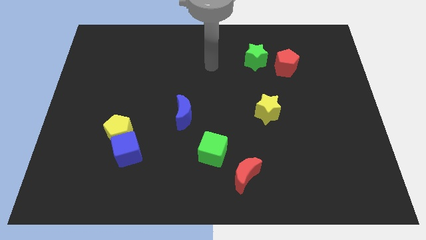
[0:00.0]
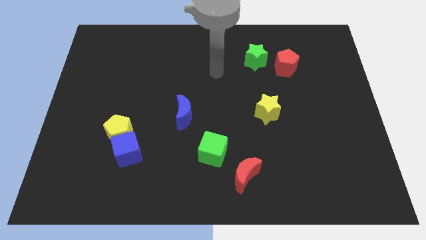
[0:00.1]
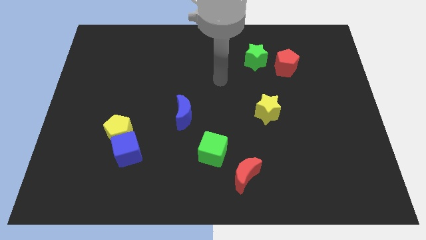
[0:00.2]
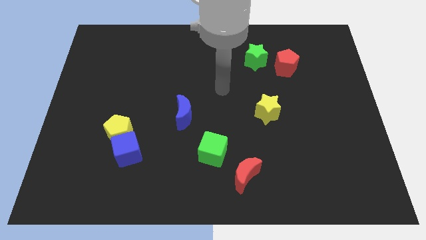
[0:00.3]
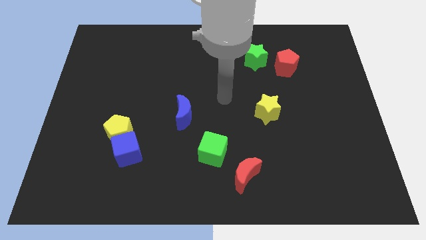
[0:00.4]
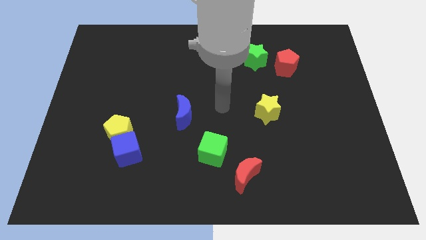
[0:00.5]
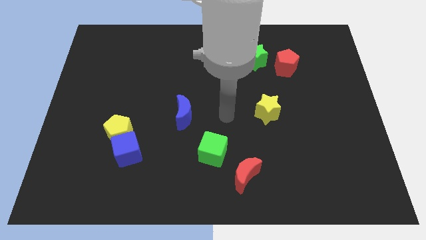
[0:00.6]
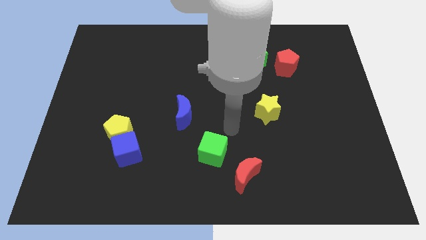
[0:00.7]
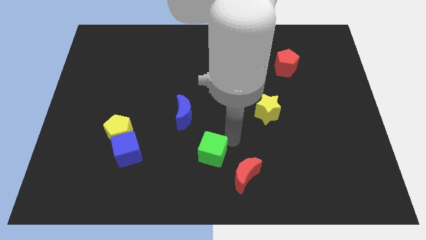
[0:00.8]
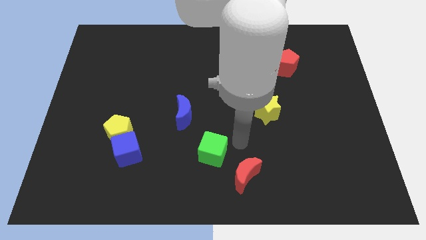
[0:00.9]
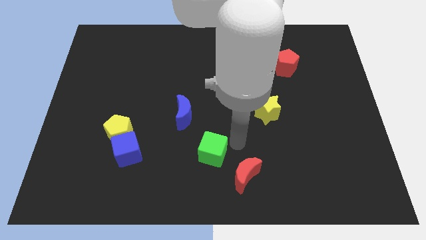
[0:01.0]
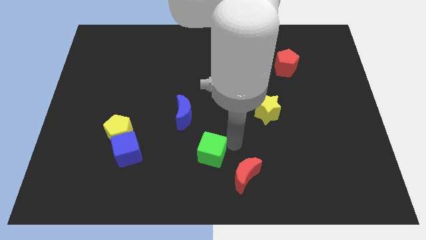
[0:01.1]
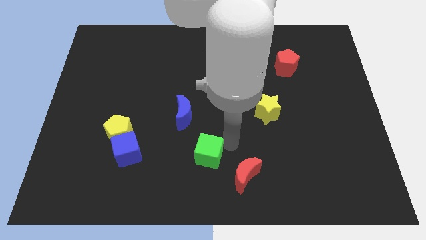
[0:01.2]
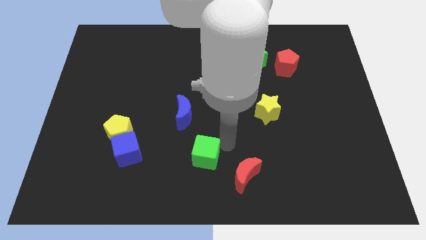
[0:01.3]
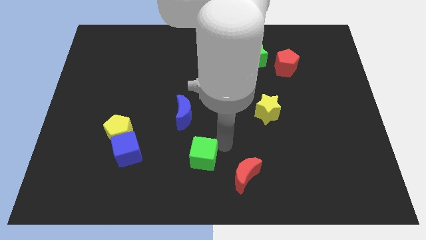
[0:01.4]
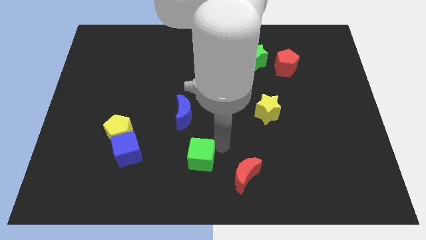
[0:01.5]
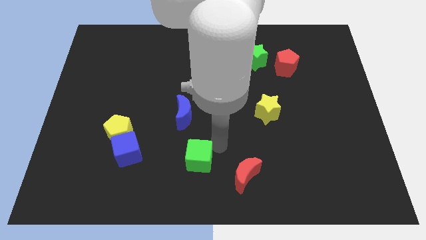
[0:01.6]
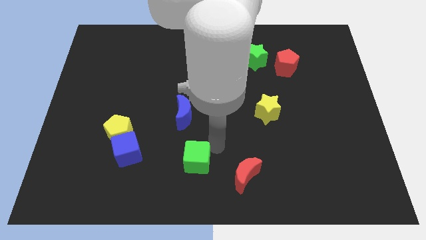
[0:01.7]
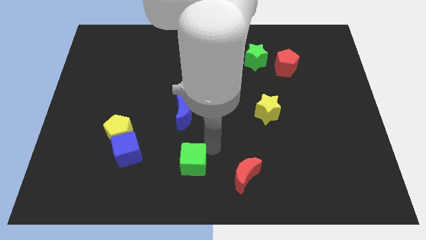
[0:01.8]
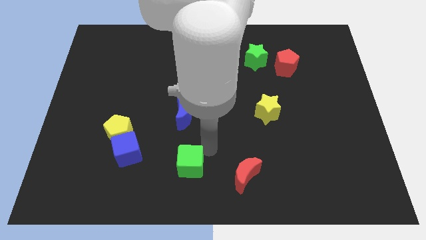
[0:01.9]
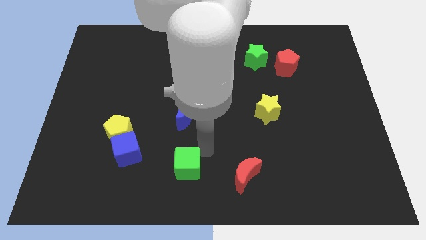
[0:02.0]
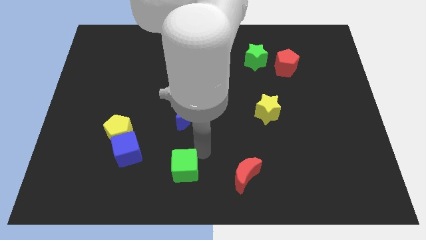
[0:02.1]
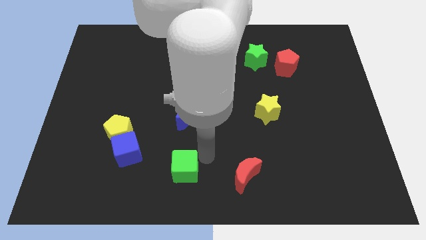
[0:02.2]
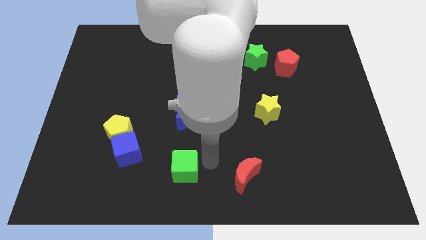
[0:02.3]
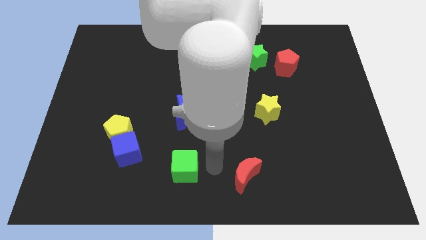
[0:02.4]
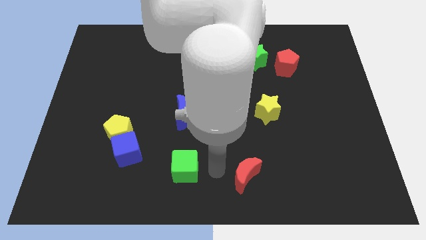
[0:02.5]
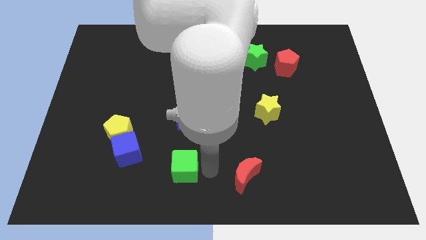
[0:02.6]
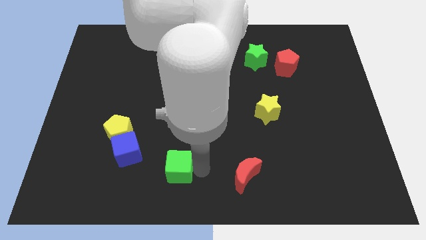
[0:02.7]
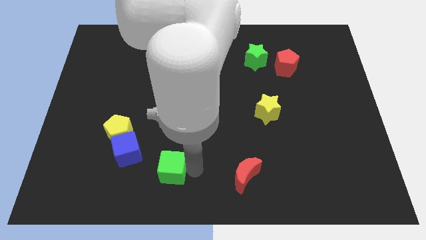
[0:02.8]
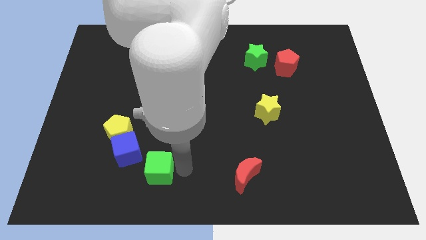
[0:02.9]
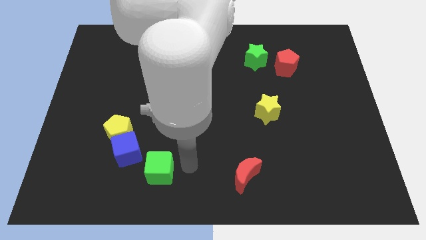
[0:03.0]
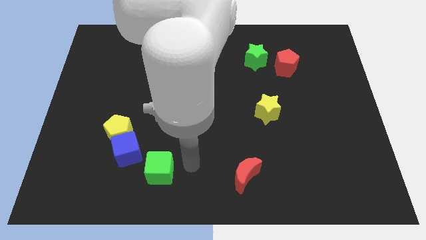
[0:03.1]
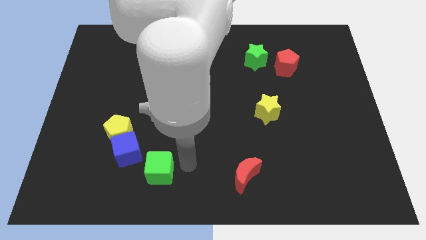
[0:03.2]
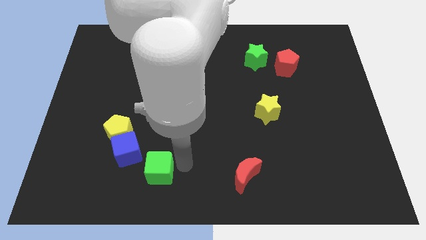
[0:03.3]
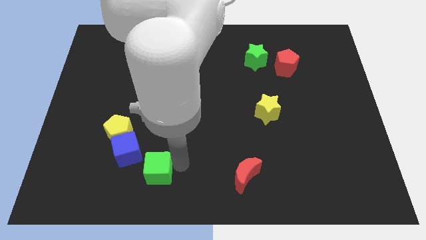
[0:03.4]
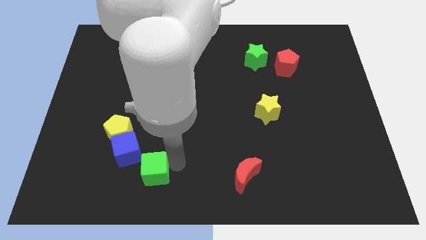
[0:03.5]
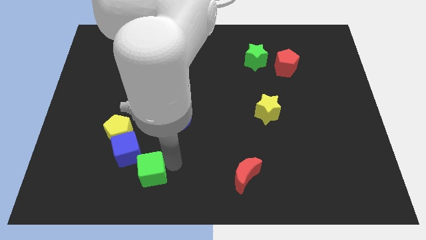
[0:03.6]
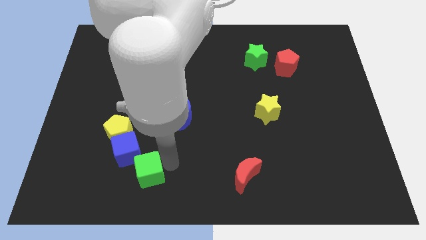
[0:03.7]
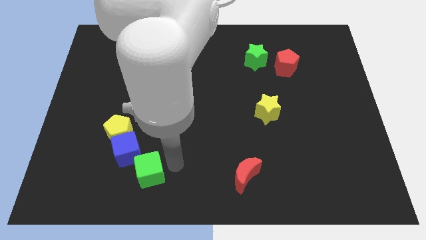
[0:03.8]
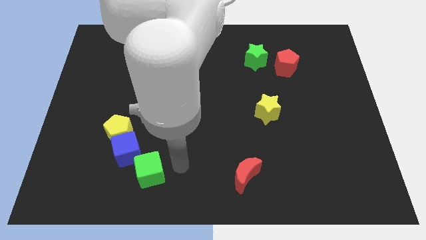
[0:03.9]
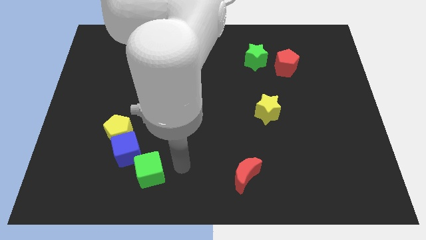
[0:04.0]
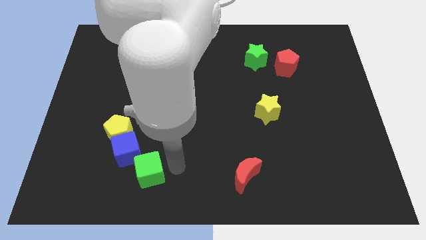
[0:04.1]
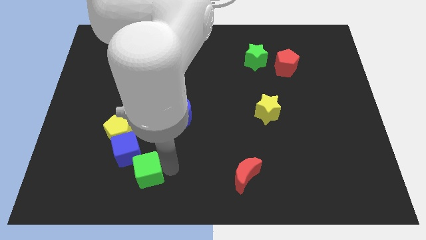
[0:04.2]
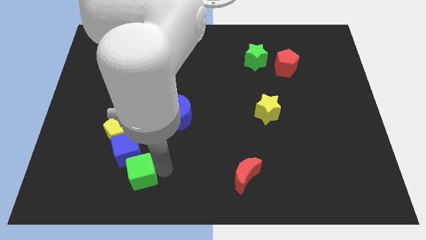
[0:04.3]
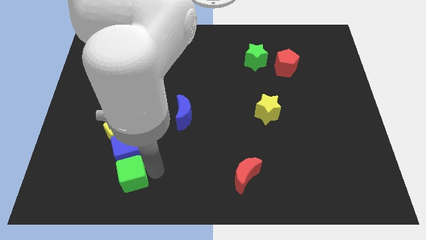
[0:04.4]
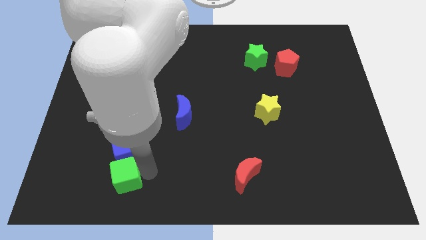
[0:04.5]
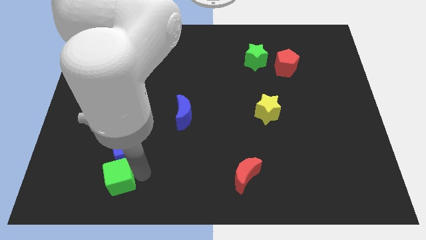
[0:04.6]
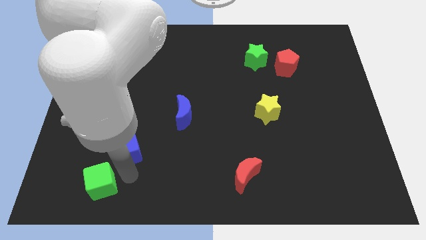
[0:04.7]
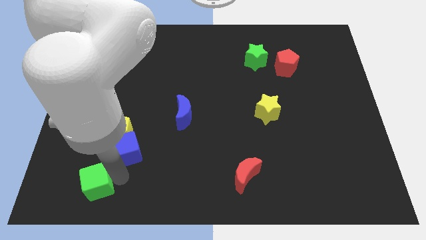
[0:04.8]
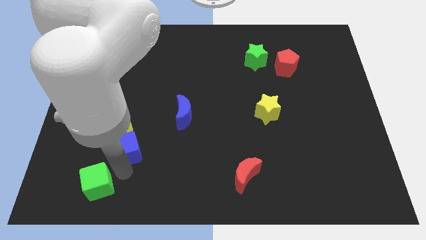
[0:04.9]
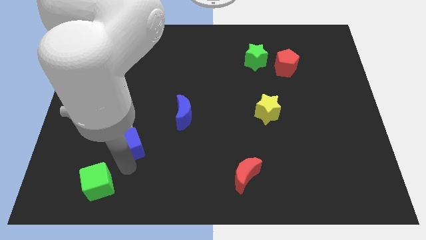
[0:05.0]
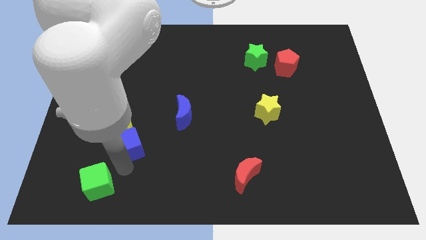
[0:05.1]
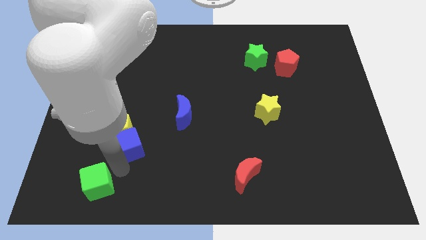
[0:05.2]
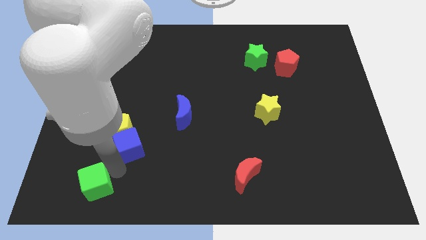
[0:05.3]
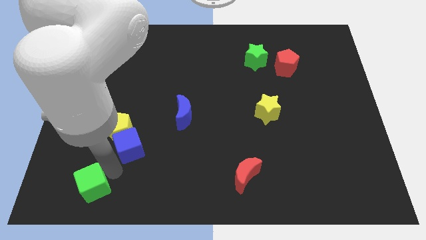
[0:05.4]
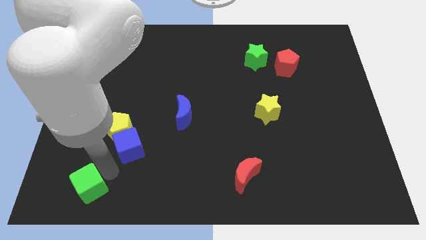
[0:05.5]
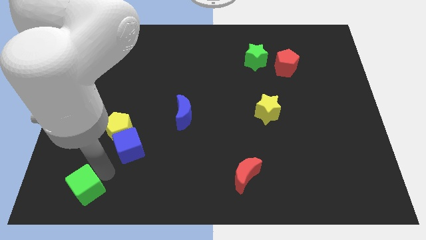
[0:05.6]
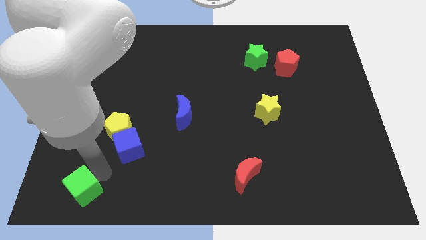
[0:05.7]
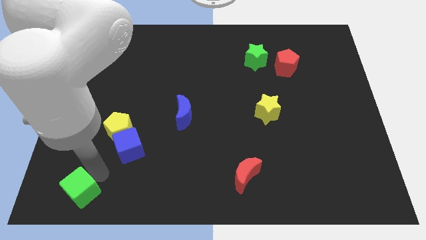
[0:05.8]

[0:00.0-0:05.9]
slide the green cube to the bottom left
